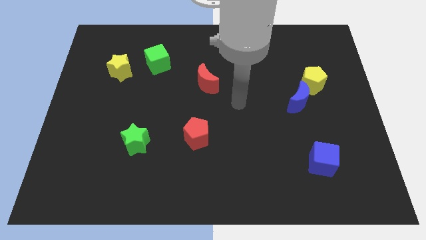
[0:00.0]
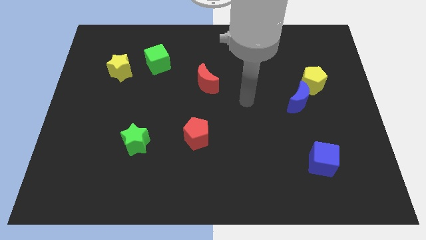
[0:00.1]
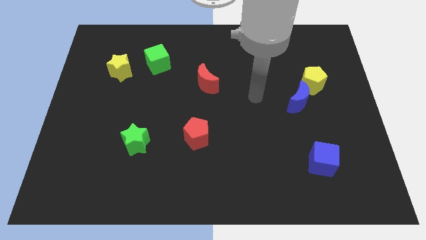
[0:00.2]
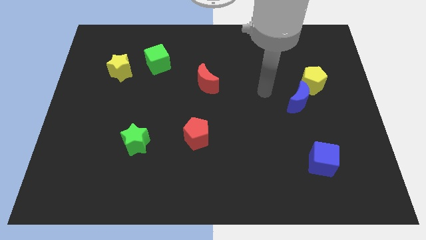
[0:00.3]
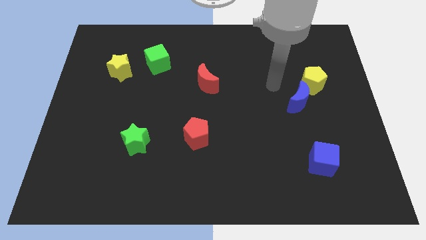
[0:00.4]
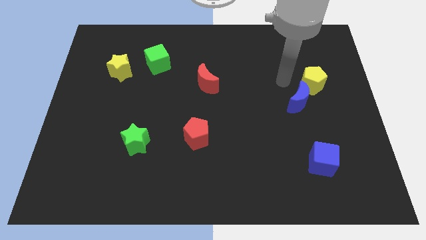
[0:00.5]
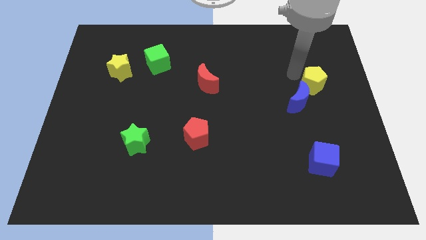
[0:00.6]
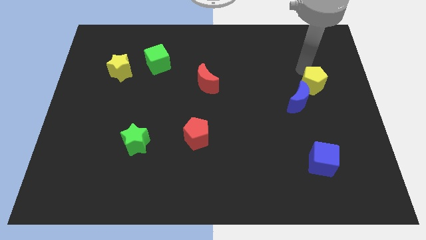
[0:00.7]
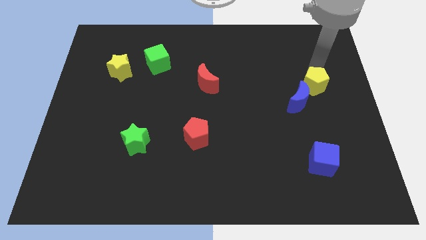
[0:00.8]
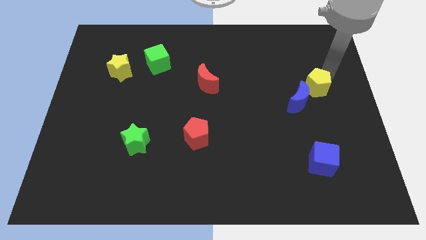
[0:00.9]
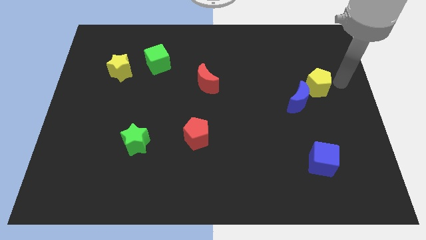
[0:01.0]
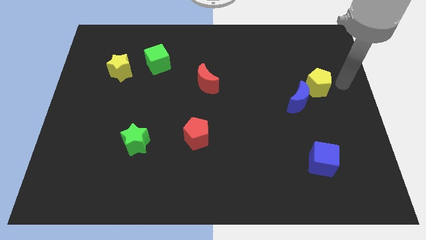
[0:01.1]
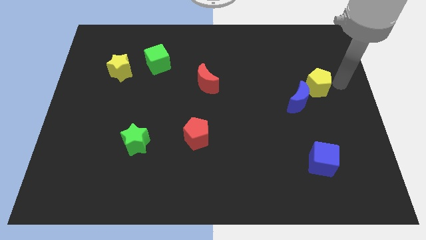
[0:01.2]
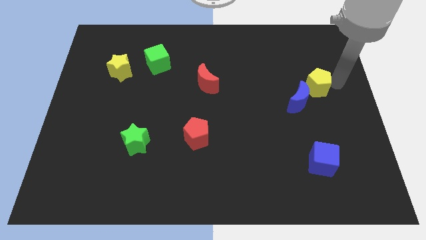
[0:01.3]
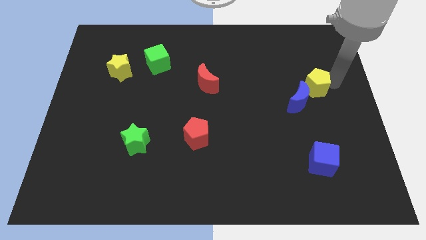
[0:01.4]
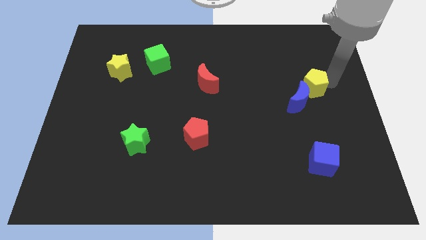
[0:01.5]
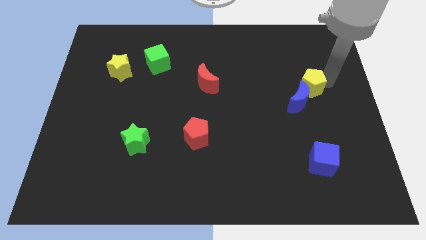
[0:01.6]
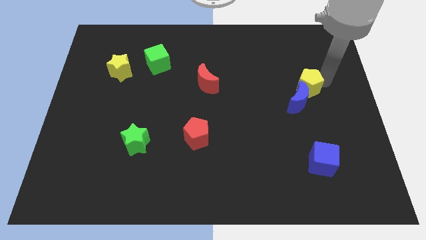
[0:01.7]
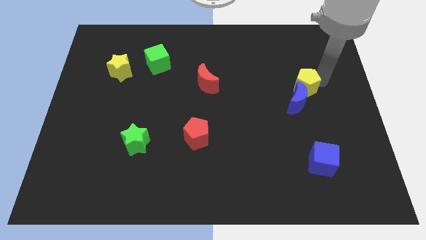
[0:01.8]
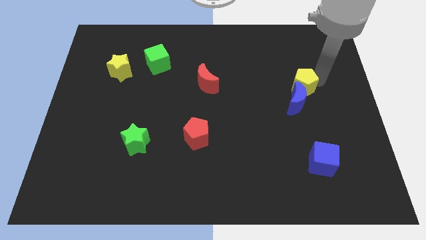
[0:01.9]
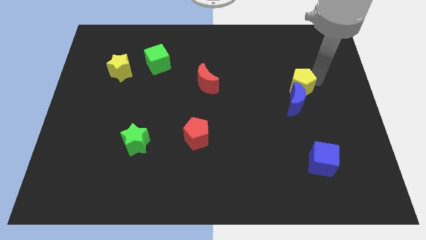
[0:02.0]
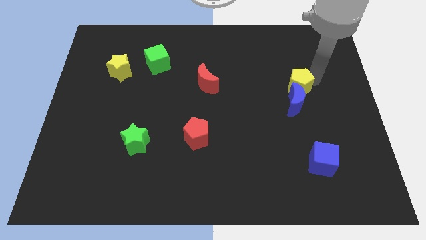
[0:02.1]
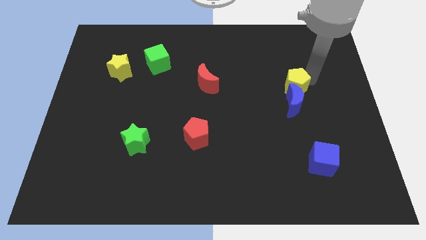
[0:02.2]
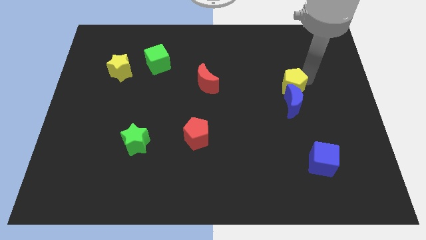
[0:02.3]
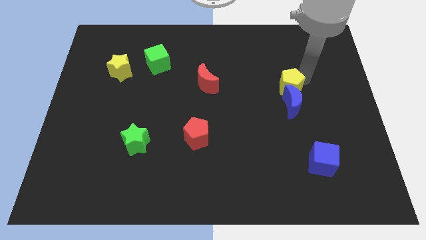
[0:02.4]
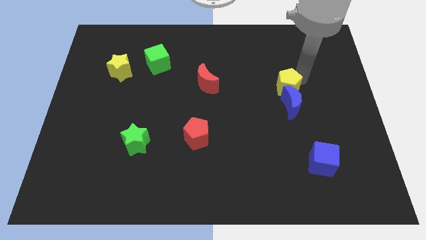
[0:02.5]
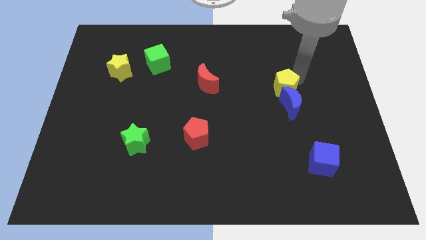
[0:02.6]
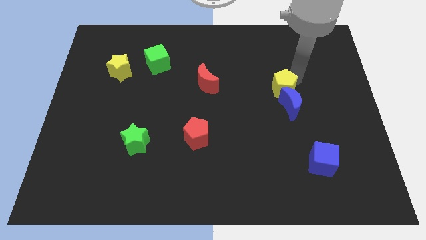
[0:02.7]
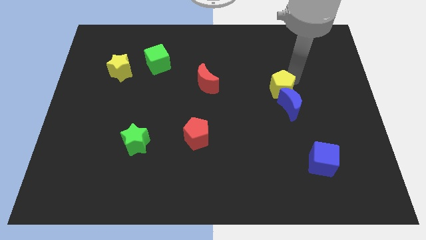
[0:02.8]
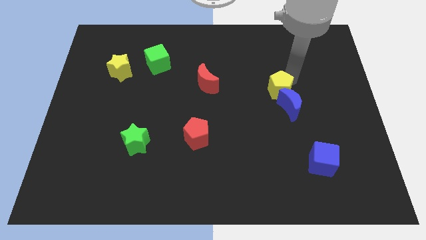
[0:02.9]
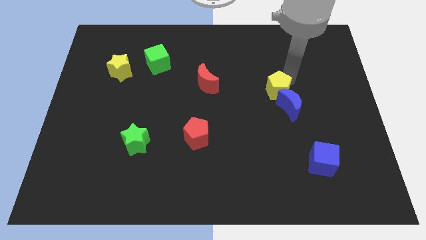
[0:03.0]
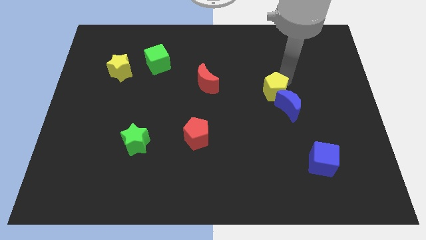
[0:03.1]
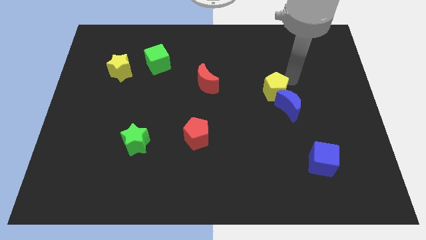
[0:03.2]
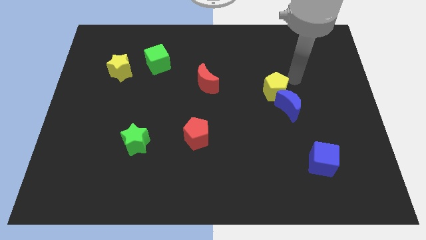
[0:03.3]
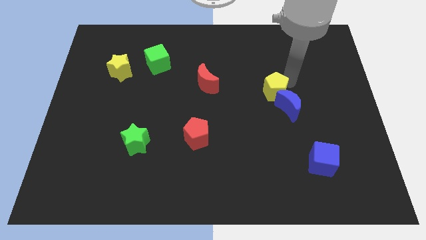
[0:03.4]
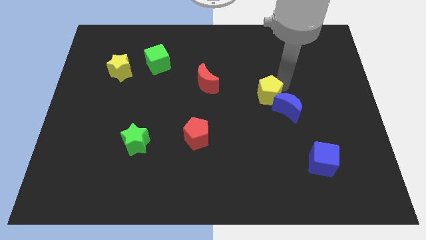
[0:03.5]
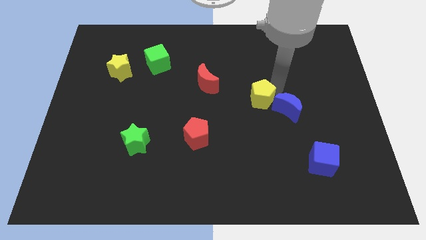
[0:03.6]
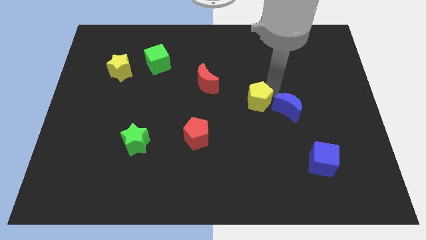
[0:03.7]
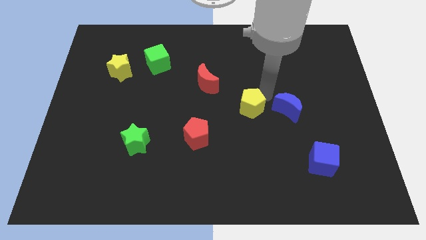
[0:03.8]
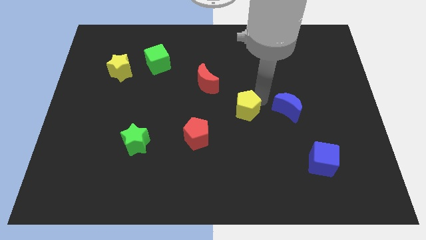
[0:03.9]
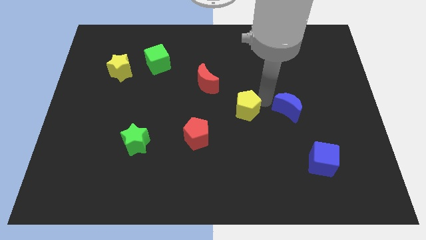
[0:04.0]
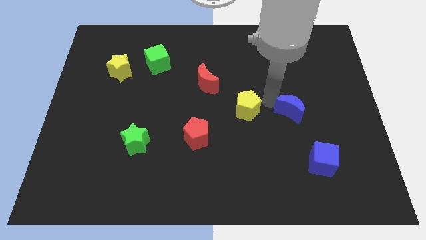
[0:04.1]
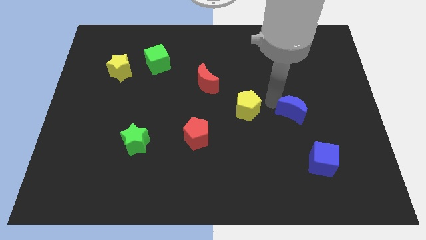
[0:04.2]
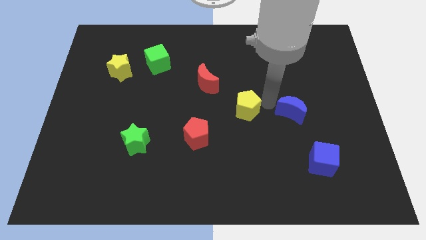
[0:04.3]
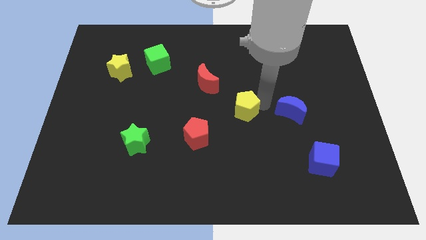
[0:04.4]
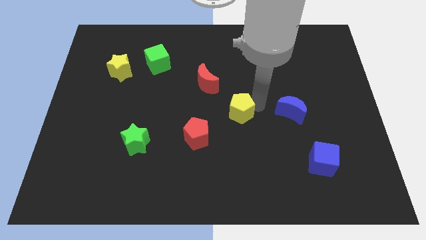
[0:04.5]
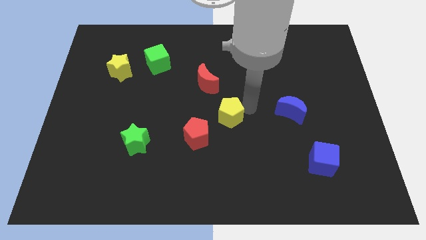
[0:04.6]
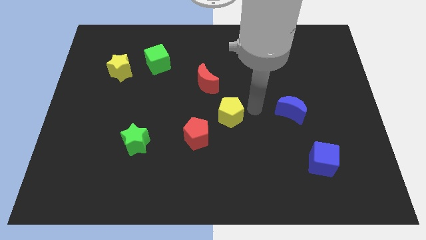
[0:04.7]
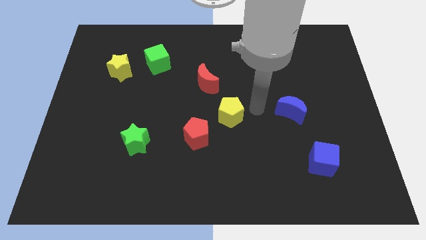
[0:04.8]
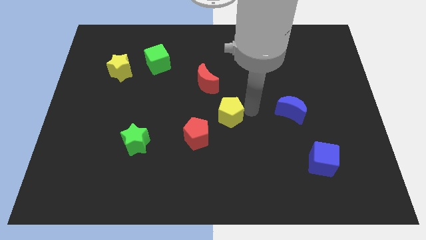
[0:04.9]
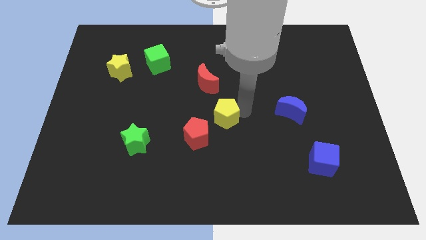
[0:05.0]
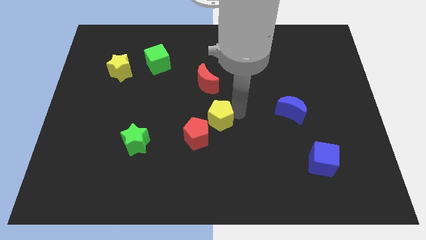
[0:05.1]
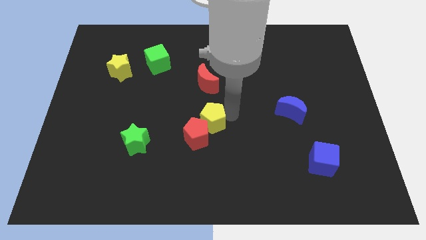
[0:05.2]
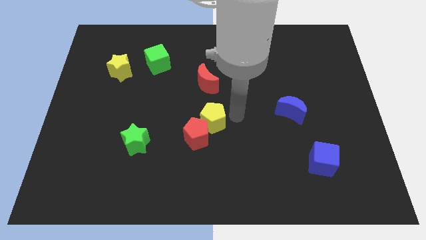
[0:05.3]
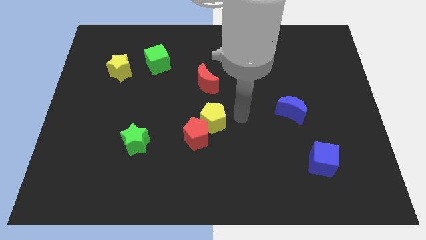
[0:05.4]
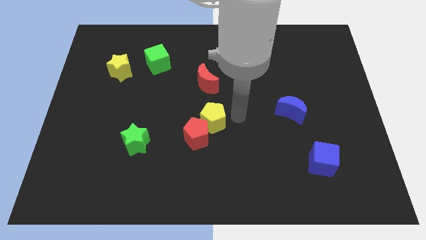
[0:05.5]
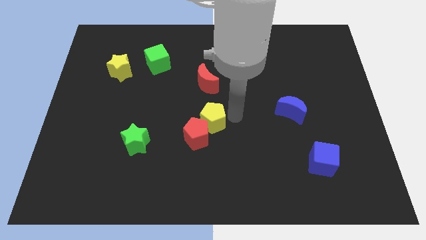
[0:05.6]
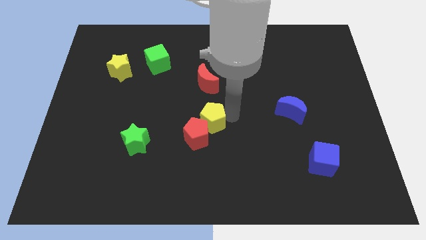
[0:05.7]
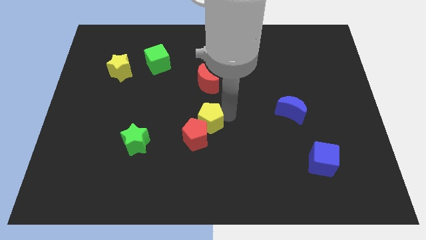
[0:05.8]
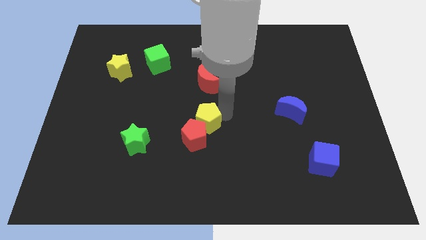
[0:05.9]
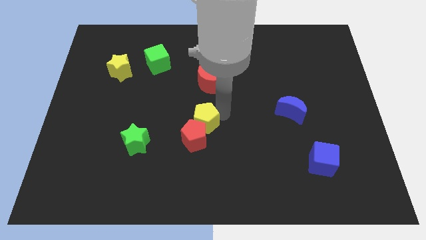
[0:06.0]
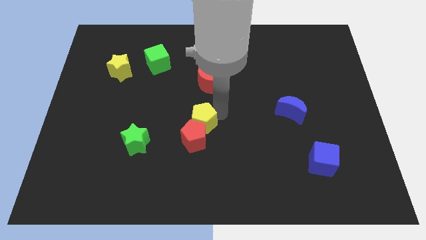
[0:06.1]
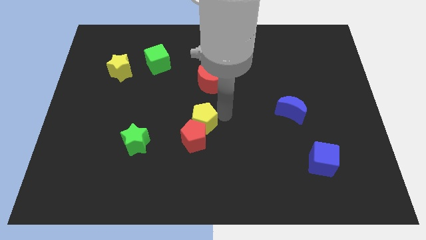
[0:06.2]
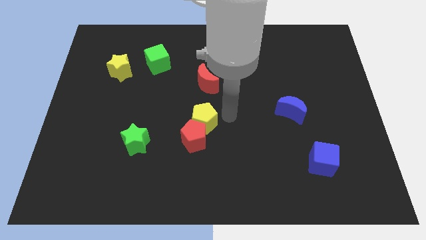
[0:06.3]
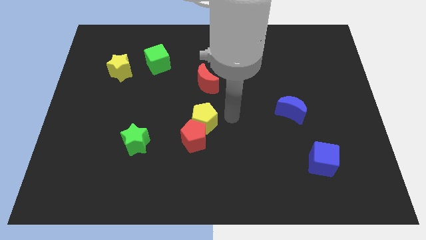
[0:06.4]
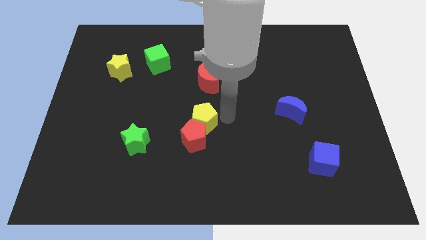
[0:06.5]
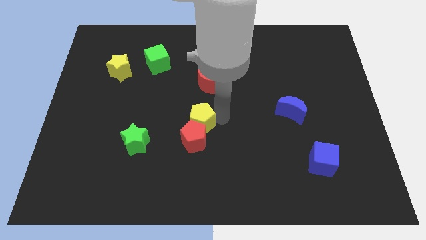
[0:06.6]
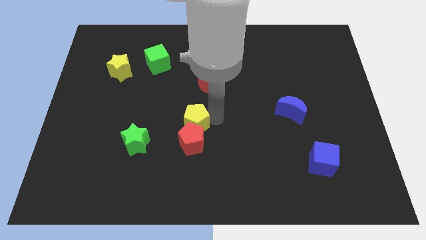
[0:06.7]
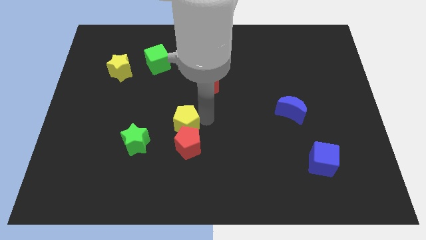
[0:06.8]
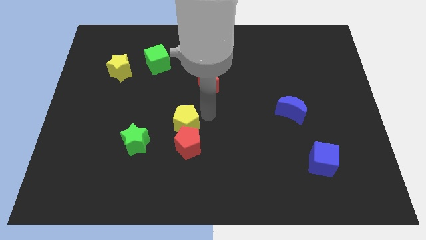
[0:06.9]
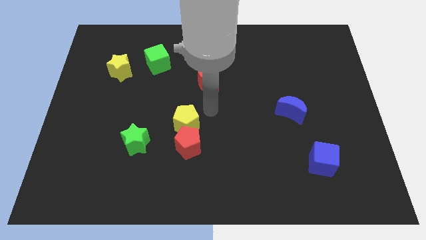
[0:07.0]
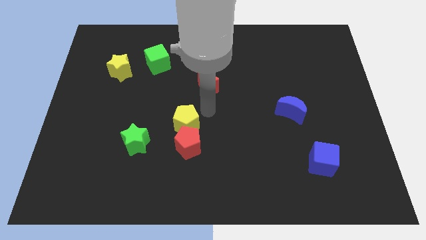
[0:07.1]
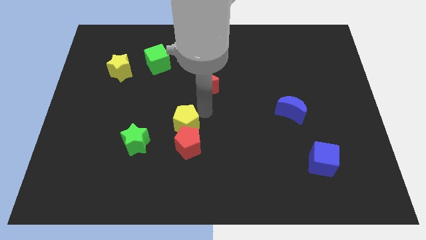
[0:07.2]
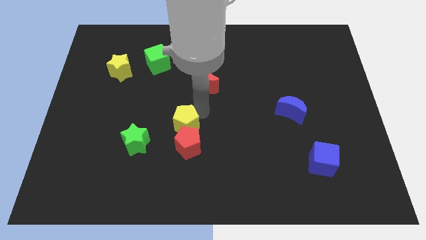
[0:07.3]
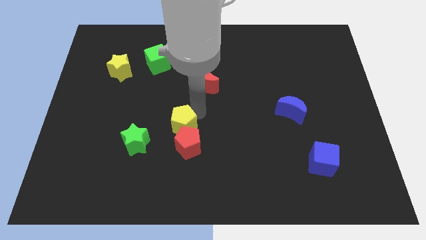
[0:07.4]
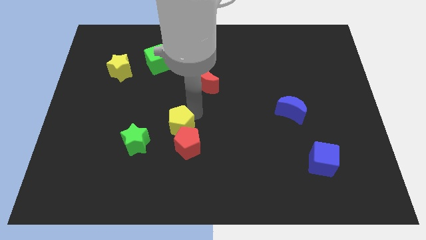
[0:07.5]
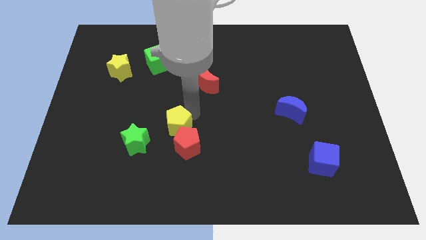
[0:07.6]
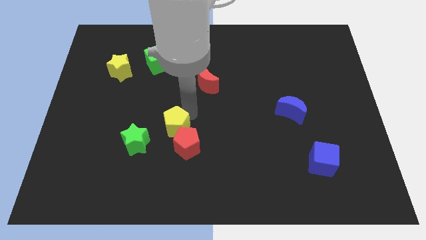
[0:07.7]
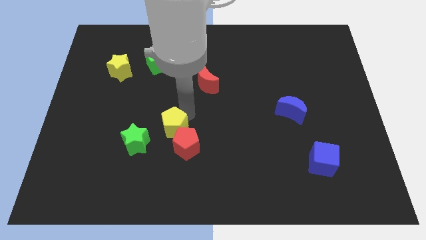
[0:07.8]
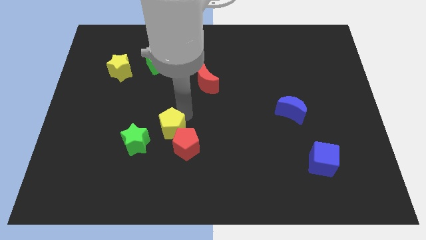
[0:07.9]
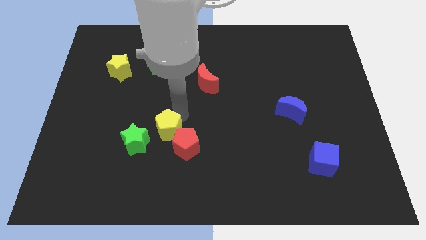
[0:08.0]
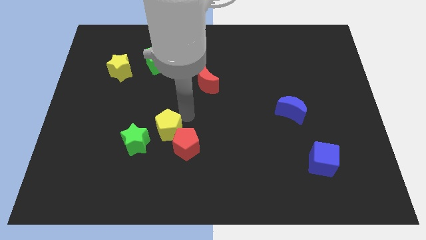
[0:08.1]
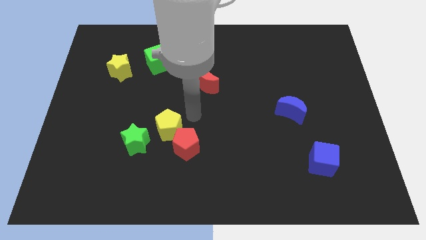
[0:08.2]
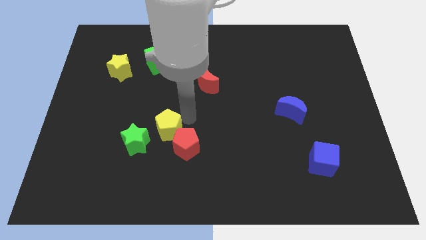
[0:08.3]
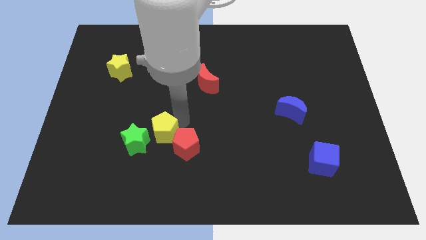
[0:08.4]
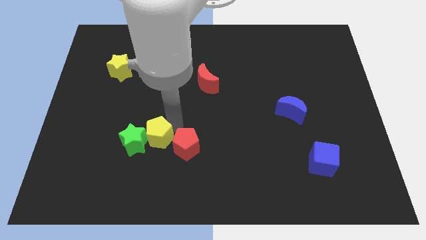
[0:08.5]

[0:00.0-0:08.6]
slide the yellow pentagon towards the green star

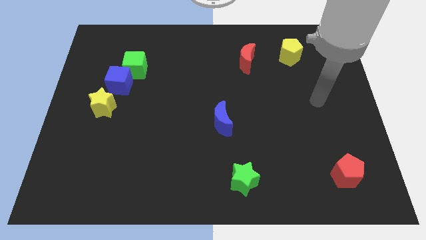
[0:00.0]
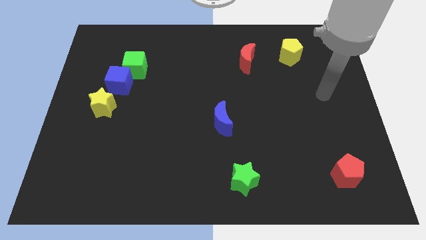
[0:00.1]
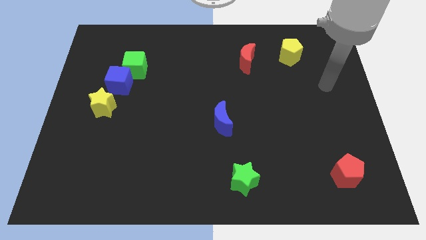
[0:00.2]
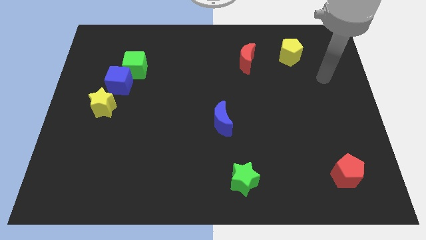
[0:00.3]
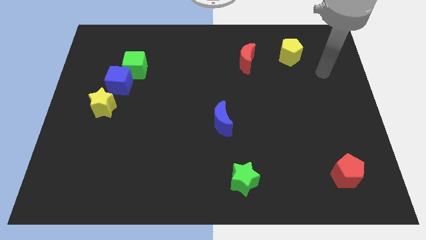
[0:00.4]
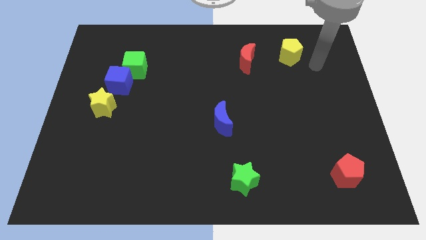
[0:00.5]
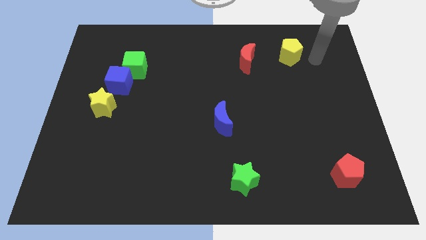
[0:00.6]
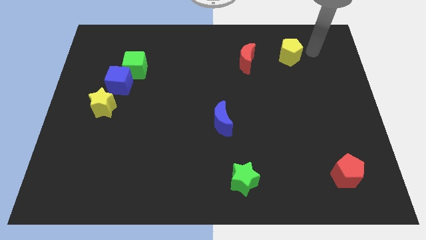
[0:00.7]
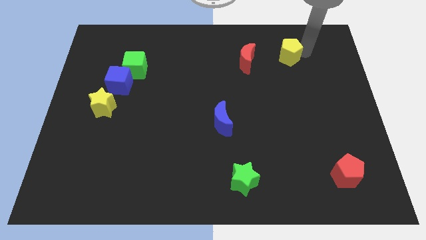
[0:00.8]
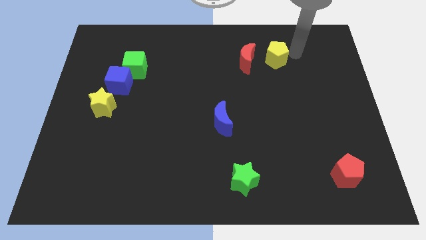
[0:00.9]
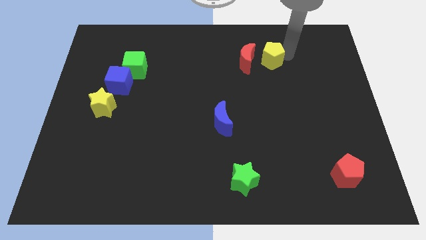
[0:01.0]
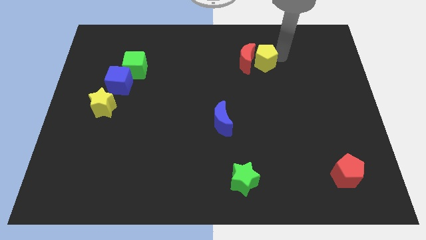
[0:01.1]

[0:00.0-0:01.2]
push the yellow pentagon close to the red moon
